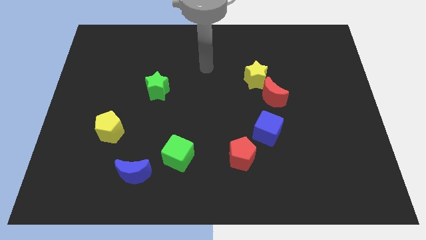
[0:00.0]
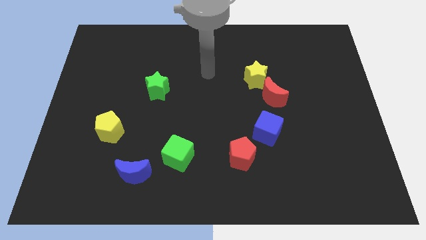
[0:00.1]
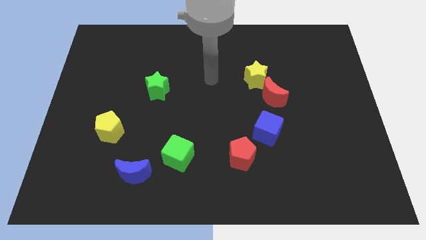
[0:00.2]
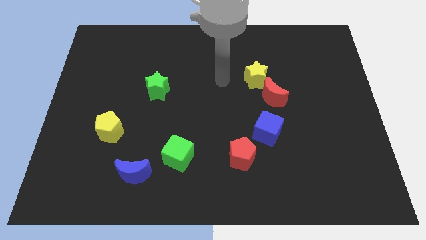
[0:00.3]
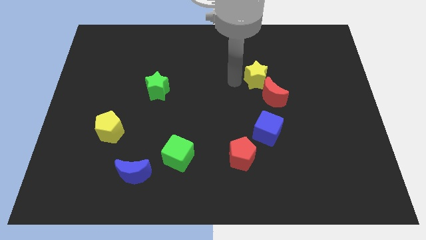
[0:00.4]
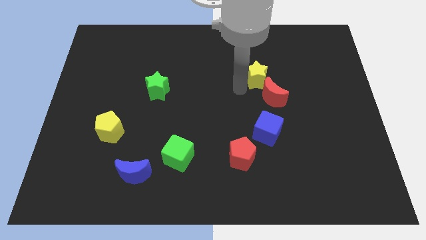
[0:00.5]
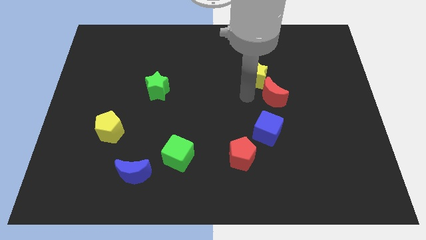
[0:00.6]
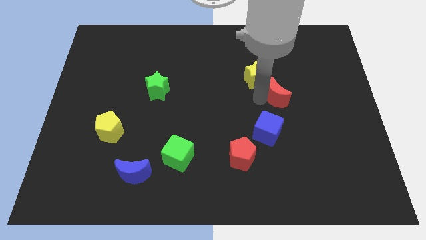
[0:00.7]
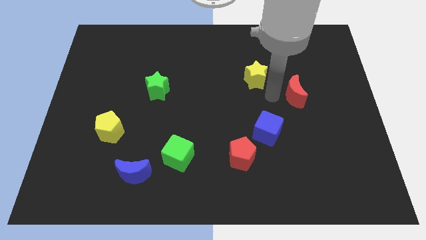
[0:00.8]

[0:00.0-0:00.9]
pull the yellow star apart from the red moon

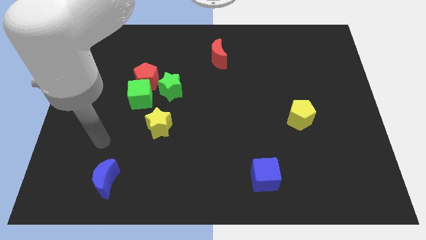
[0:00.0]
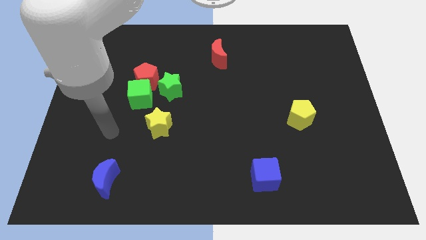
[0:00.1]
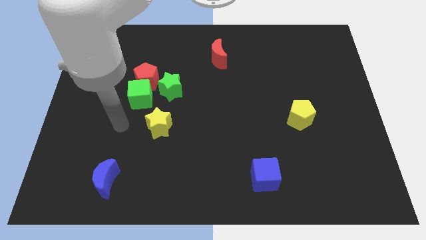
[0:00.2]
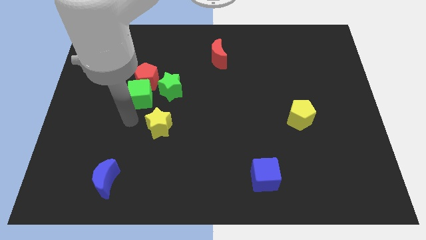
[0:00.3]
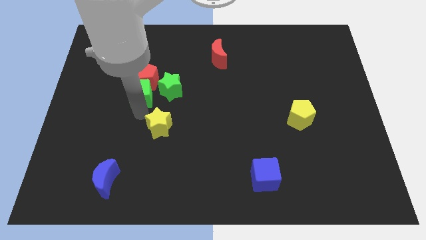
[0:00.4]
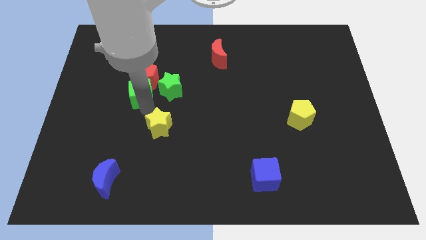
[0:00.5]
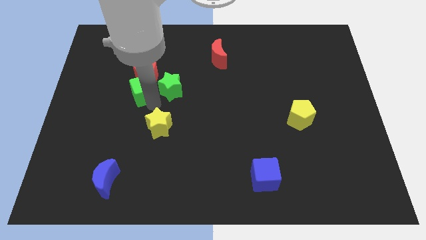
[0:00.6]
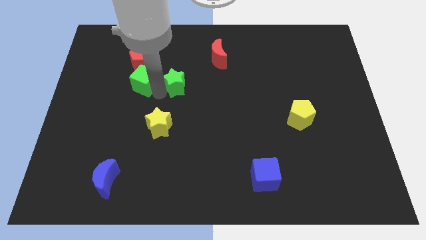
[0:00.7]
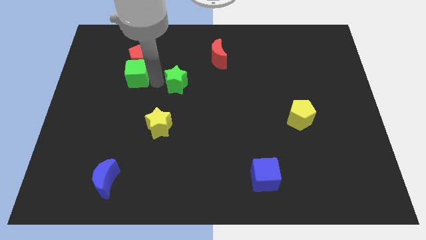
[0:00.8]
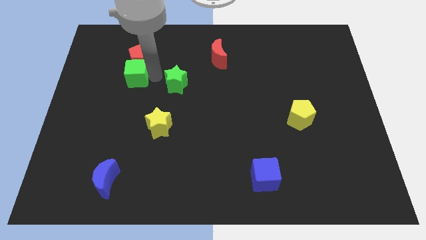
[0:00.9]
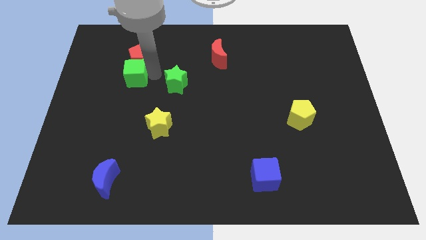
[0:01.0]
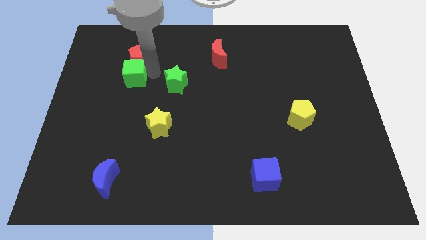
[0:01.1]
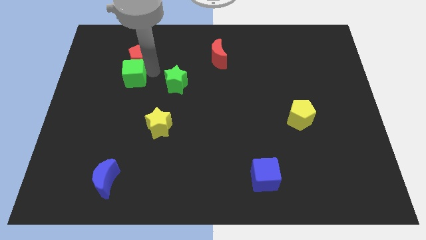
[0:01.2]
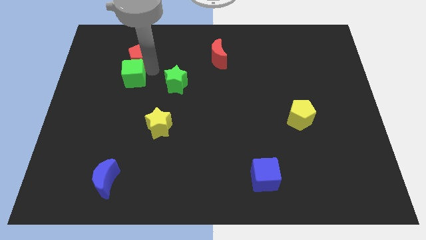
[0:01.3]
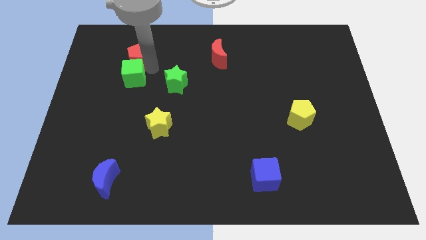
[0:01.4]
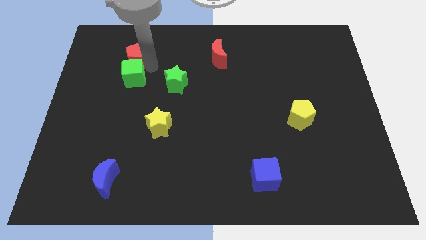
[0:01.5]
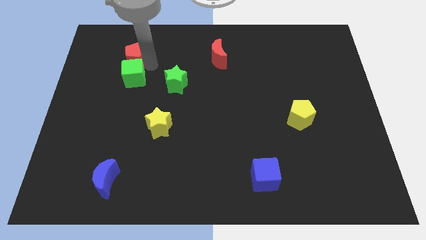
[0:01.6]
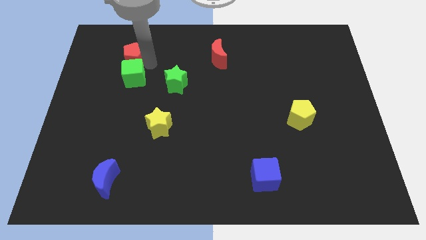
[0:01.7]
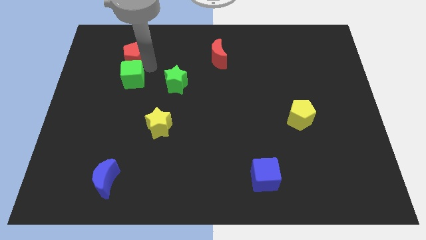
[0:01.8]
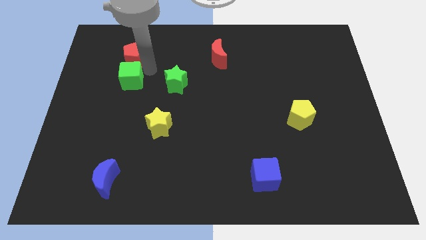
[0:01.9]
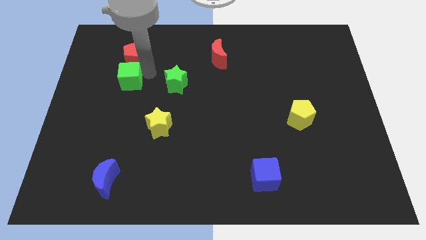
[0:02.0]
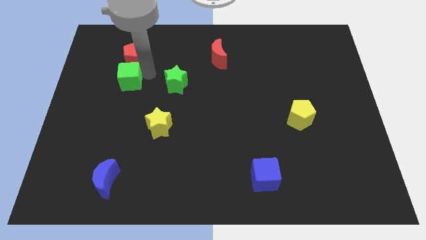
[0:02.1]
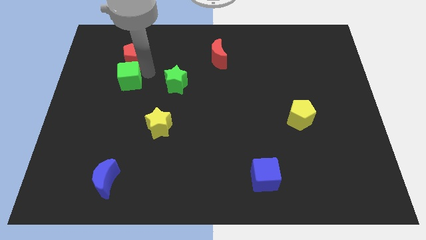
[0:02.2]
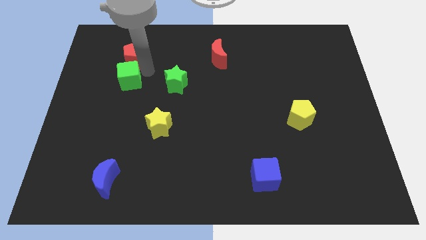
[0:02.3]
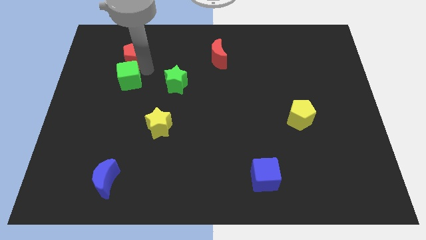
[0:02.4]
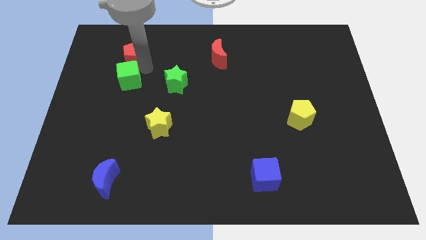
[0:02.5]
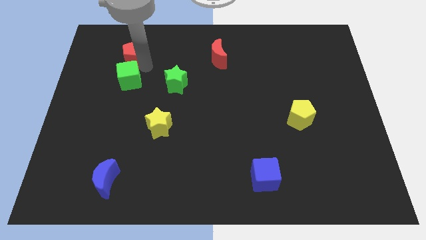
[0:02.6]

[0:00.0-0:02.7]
separate the red pentagon from the green cube and green star

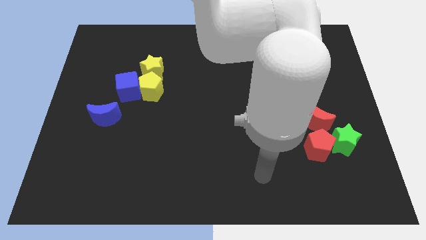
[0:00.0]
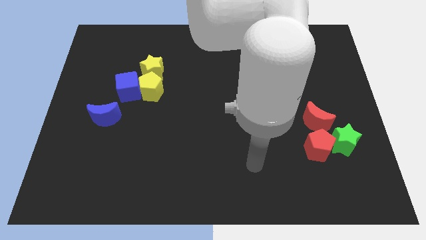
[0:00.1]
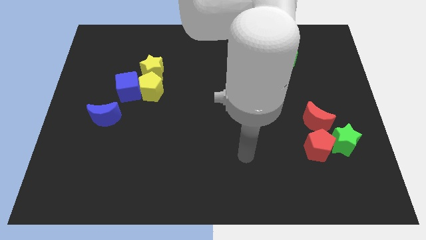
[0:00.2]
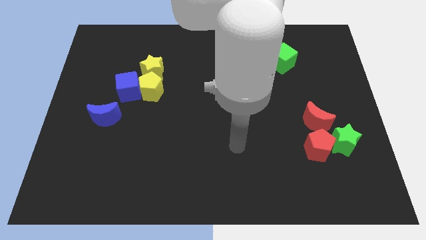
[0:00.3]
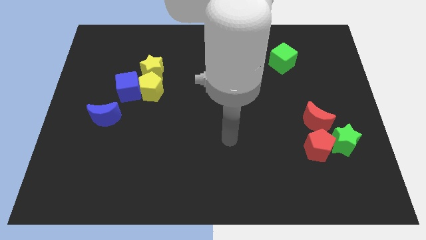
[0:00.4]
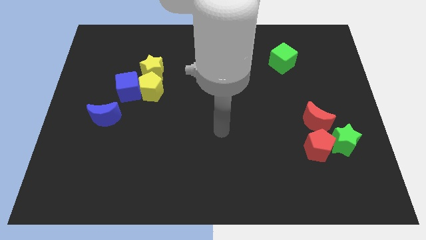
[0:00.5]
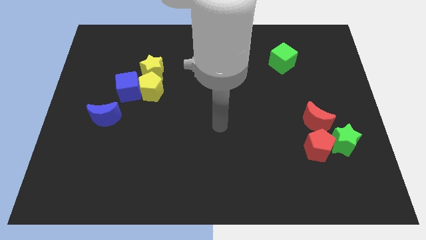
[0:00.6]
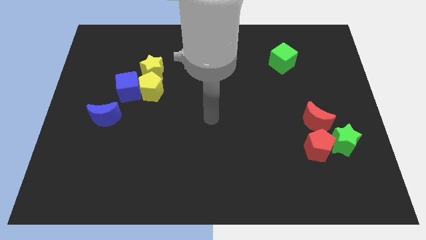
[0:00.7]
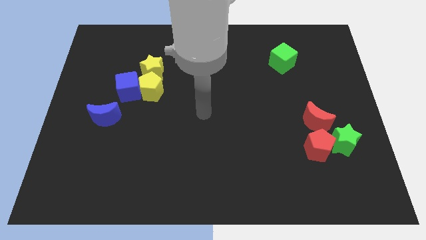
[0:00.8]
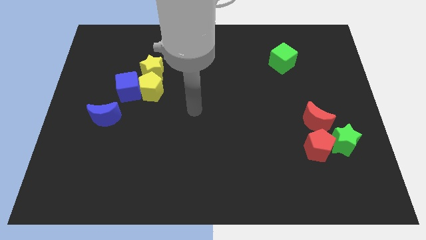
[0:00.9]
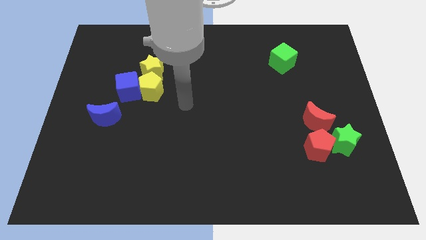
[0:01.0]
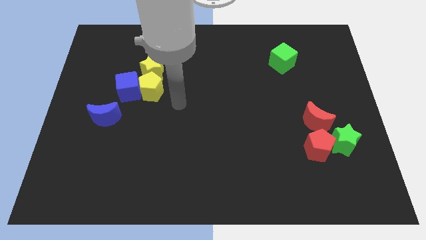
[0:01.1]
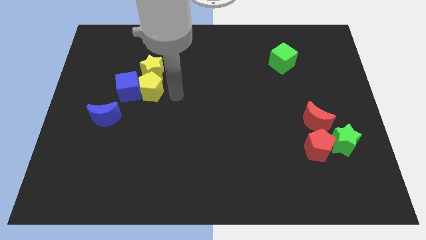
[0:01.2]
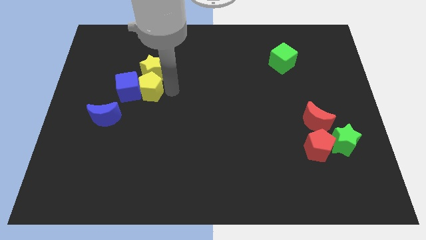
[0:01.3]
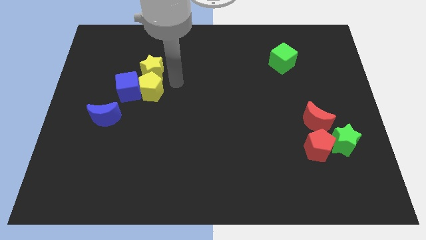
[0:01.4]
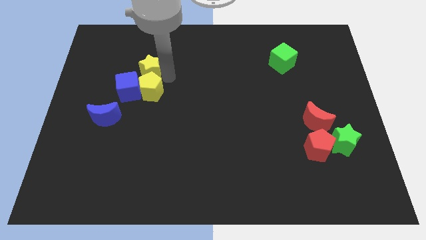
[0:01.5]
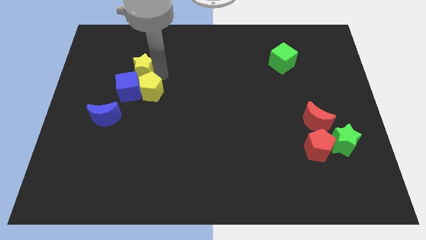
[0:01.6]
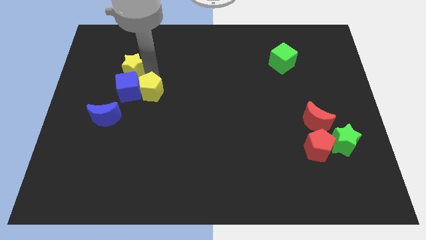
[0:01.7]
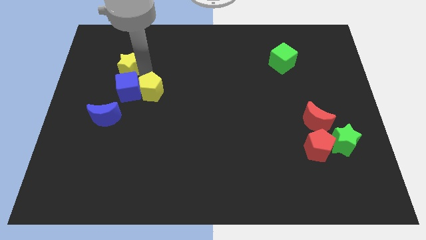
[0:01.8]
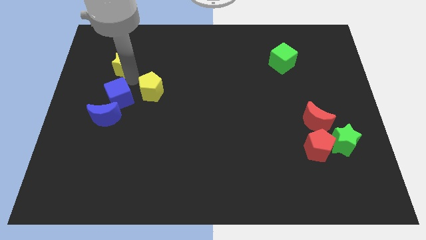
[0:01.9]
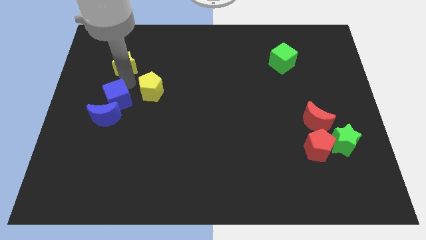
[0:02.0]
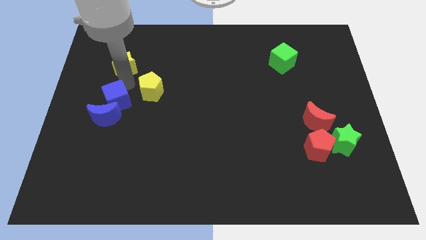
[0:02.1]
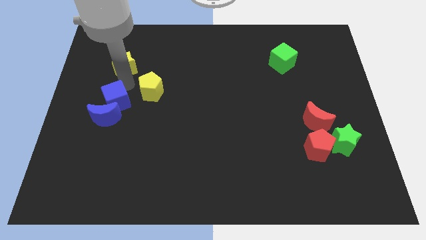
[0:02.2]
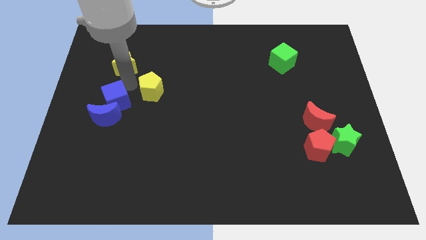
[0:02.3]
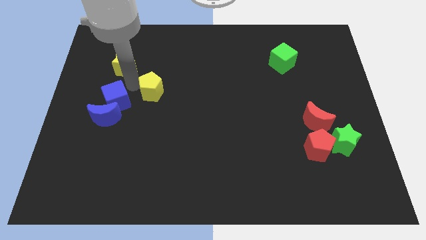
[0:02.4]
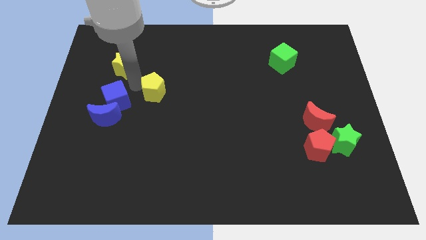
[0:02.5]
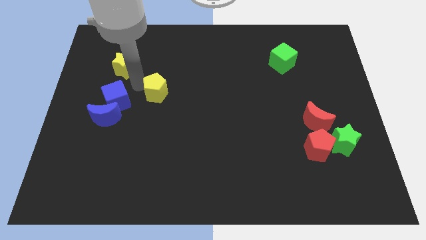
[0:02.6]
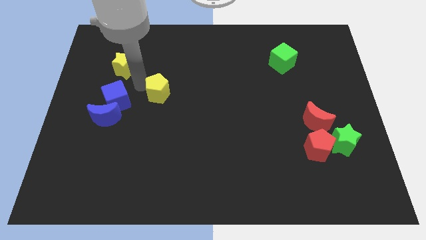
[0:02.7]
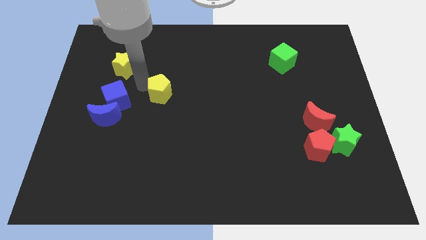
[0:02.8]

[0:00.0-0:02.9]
move the yellow pentagon away from the blue cube and yellow star

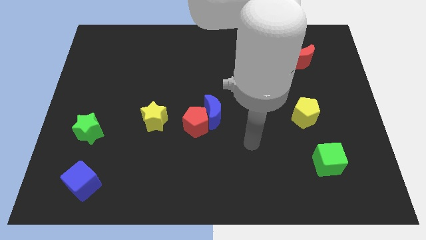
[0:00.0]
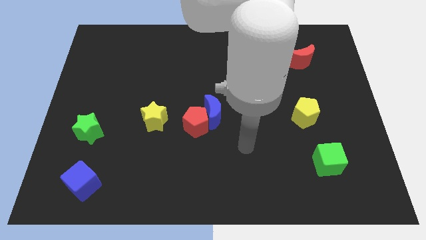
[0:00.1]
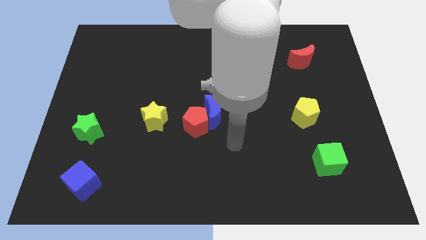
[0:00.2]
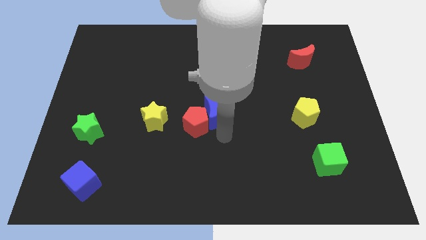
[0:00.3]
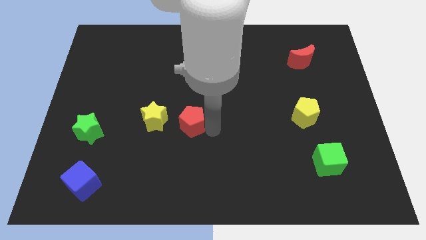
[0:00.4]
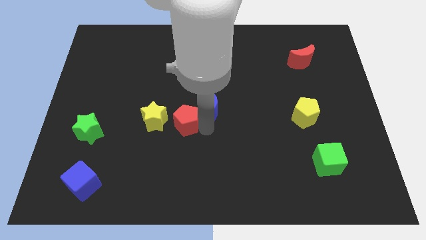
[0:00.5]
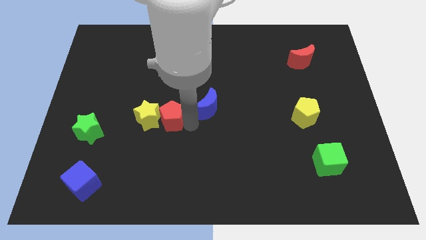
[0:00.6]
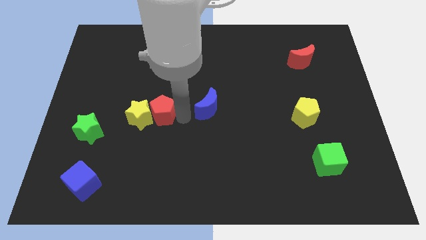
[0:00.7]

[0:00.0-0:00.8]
move the blue moon away from the red pentagon

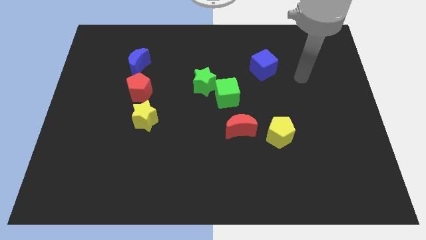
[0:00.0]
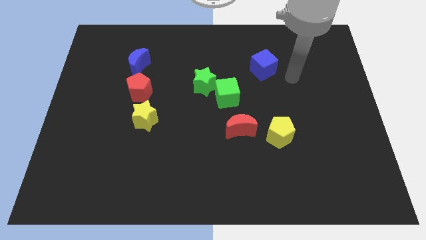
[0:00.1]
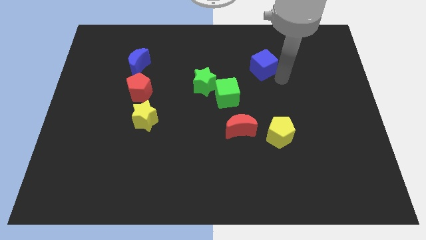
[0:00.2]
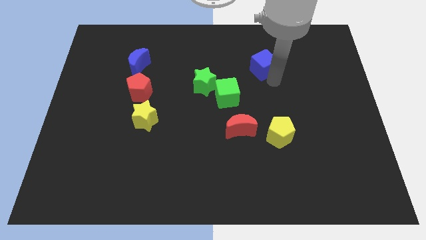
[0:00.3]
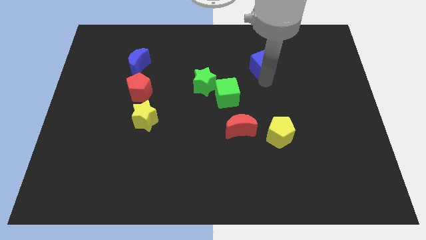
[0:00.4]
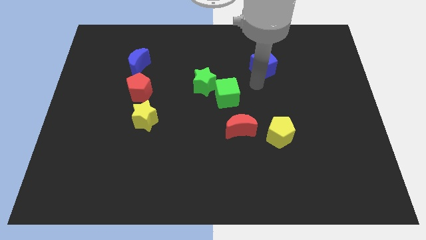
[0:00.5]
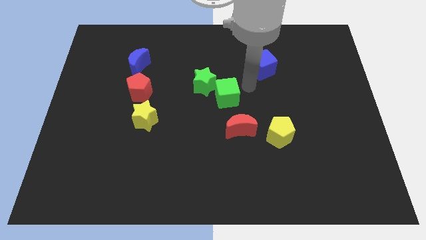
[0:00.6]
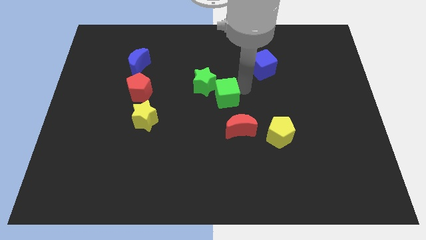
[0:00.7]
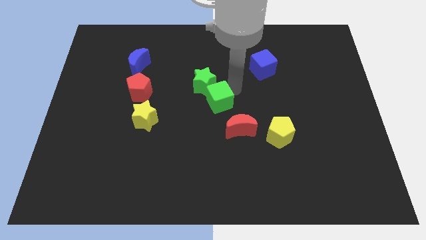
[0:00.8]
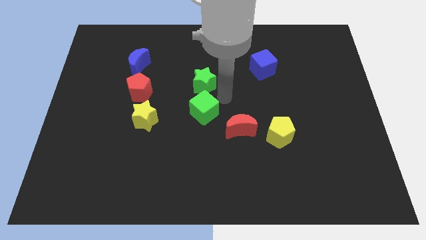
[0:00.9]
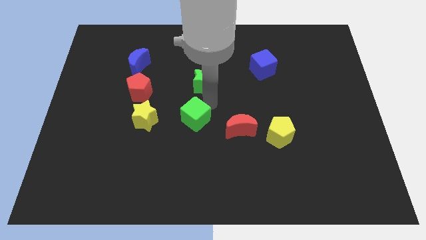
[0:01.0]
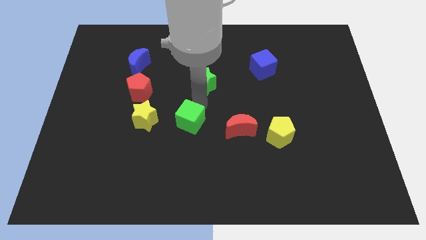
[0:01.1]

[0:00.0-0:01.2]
move the green star away from the green cube

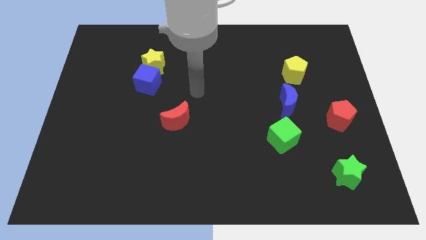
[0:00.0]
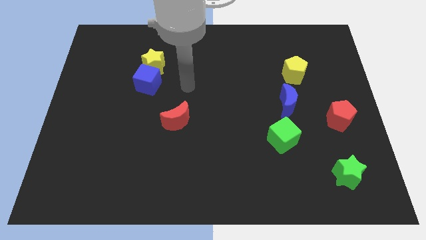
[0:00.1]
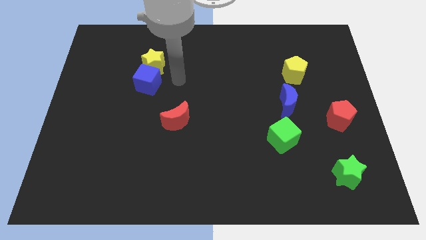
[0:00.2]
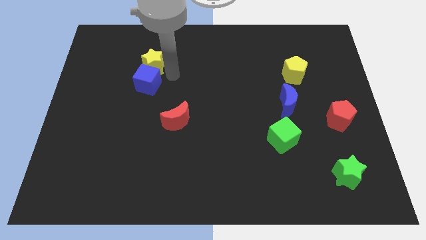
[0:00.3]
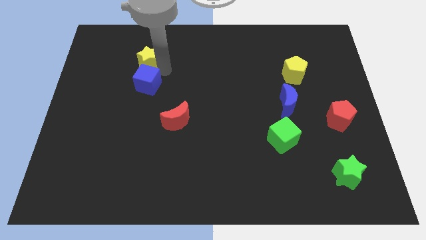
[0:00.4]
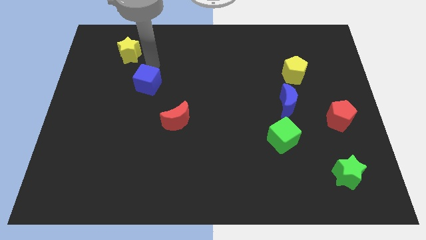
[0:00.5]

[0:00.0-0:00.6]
move the blue cube away from the yellow star

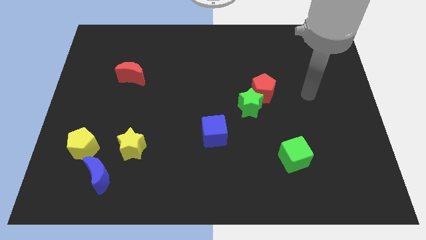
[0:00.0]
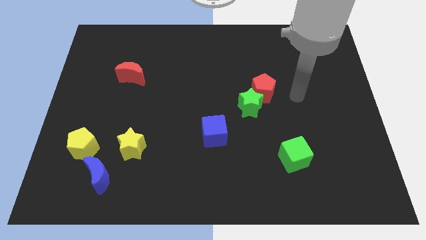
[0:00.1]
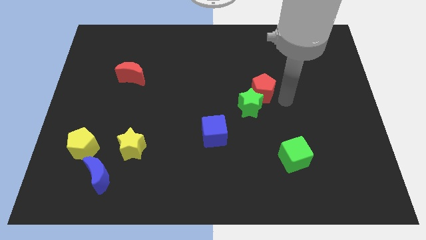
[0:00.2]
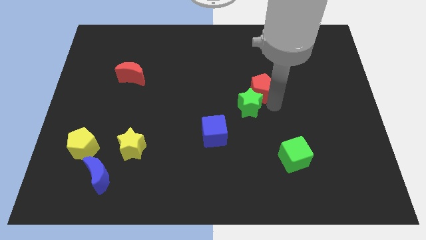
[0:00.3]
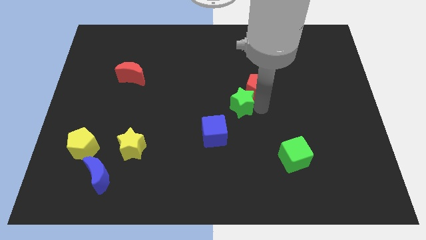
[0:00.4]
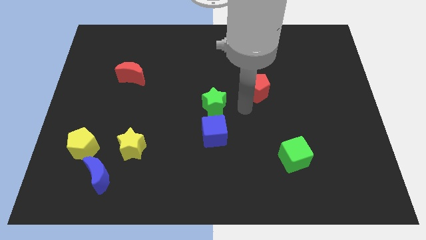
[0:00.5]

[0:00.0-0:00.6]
pull the red pentagon apart from the green star
